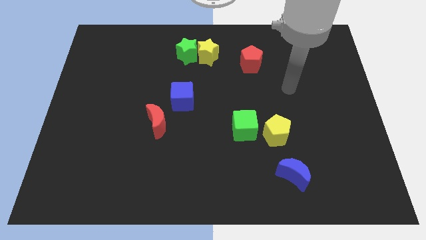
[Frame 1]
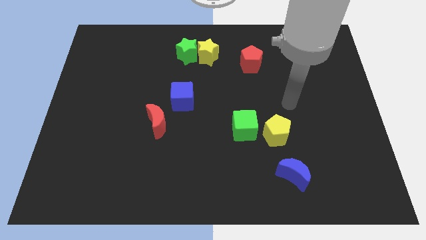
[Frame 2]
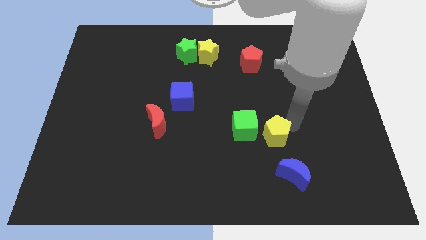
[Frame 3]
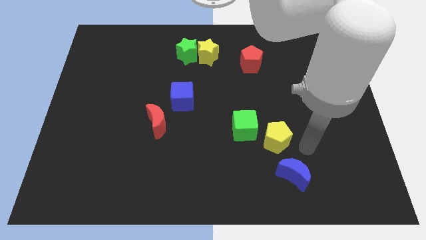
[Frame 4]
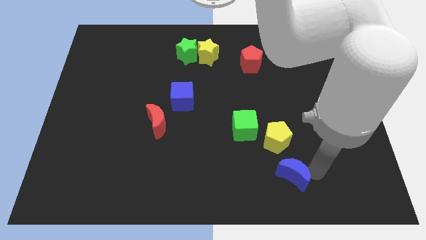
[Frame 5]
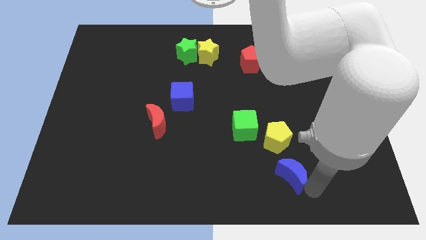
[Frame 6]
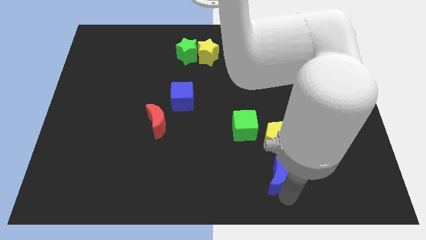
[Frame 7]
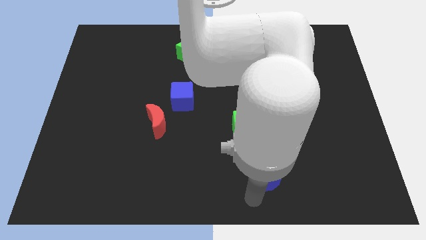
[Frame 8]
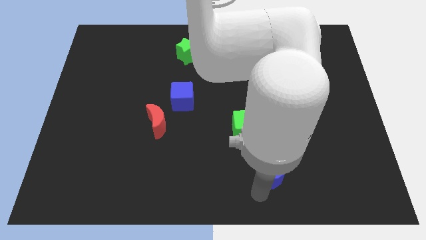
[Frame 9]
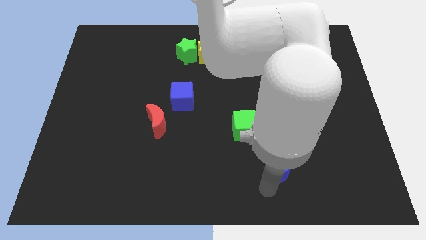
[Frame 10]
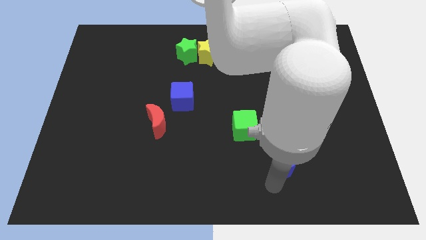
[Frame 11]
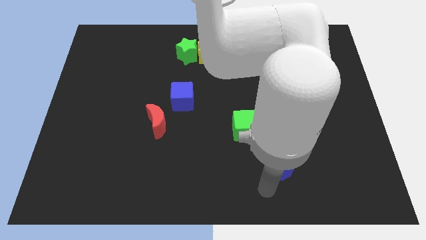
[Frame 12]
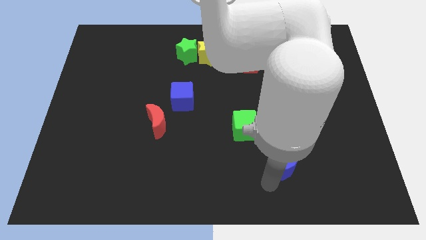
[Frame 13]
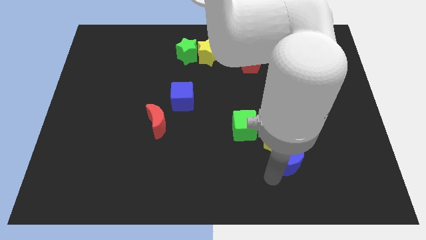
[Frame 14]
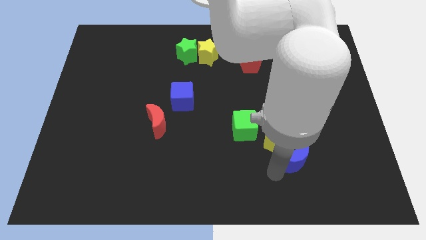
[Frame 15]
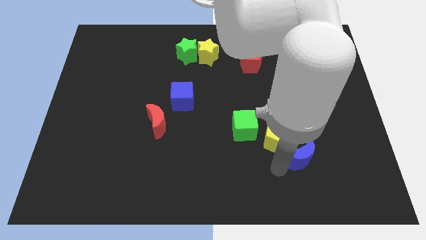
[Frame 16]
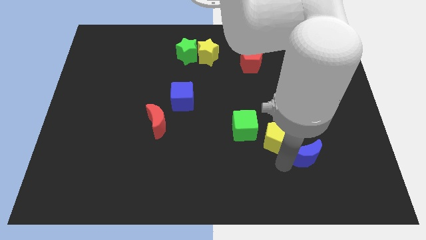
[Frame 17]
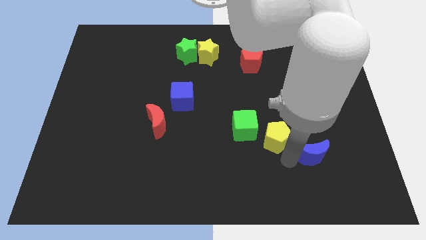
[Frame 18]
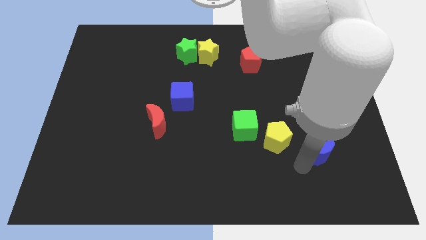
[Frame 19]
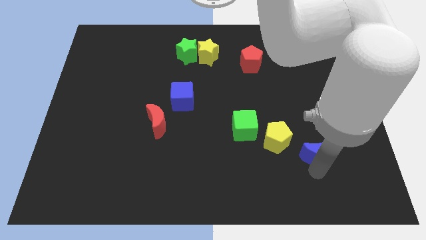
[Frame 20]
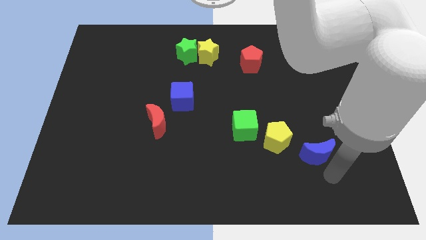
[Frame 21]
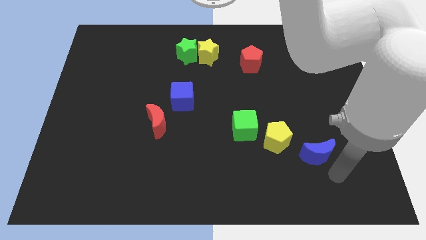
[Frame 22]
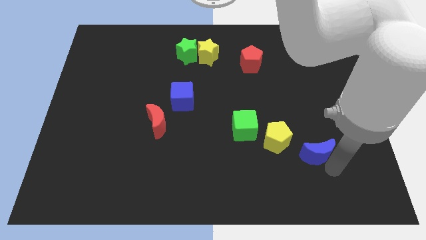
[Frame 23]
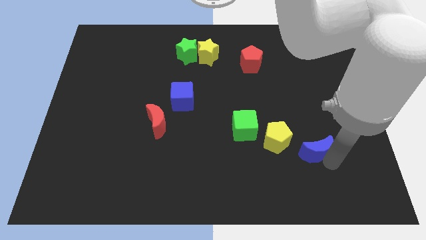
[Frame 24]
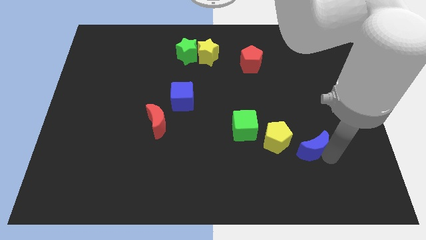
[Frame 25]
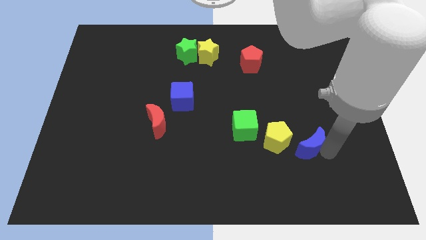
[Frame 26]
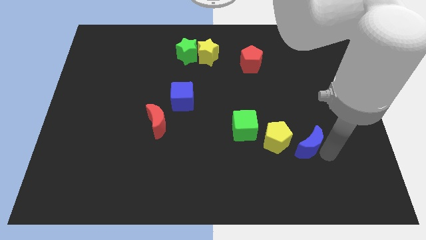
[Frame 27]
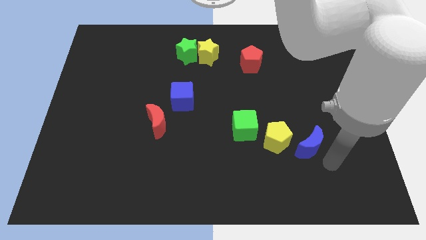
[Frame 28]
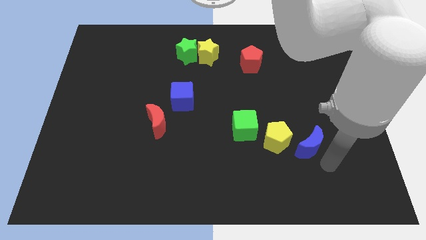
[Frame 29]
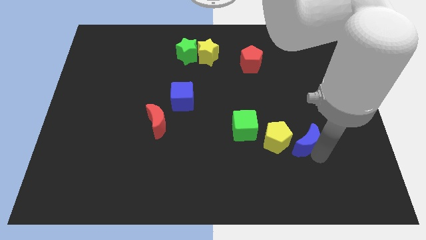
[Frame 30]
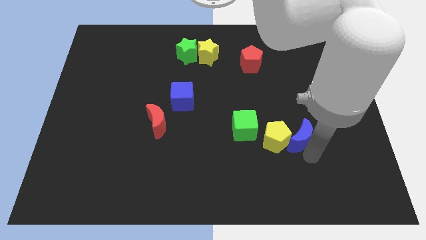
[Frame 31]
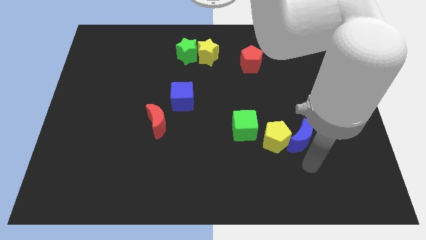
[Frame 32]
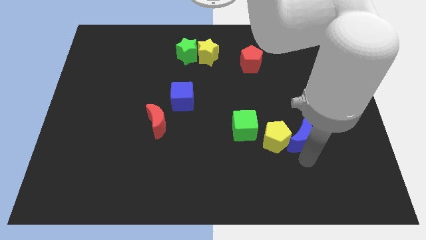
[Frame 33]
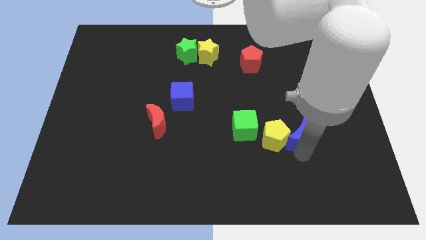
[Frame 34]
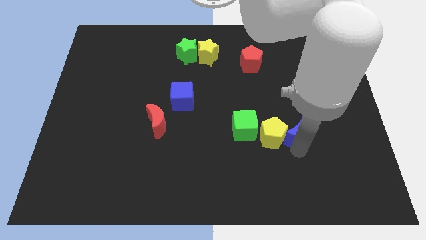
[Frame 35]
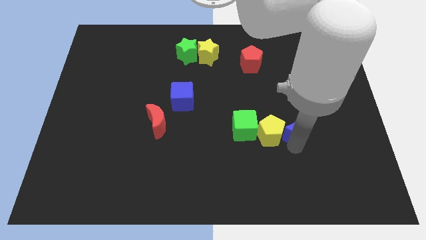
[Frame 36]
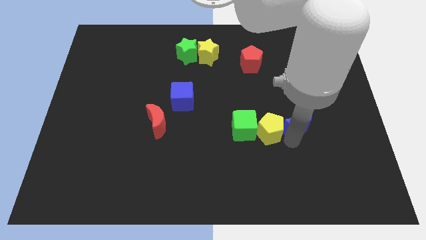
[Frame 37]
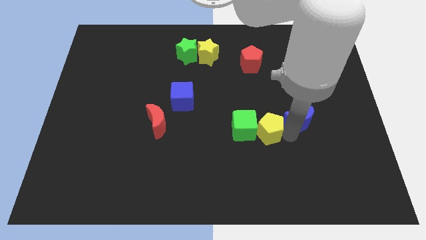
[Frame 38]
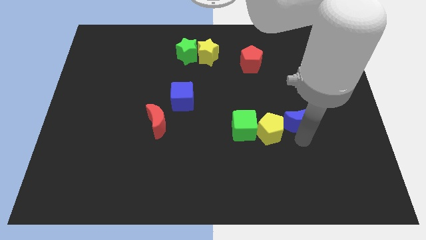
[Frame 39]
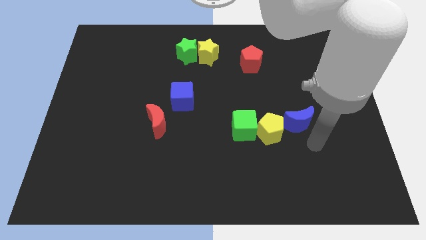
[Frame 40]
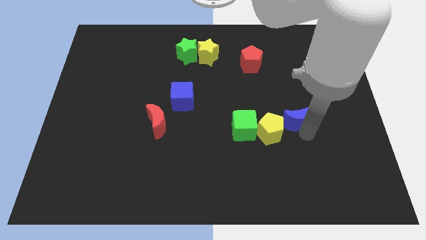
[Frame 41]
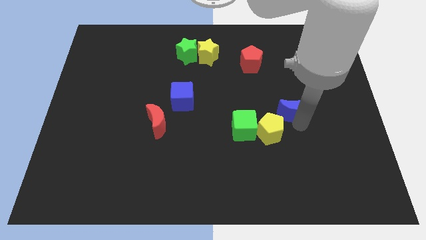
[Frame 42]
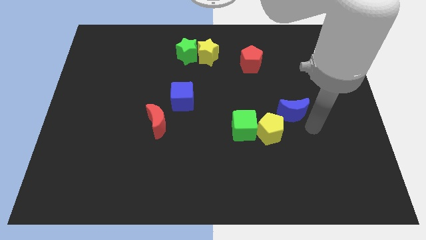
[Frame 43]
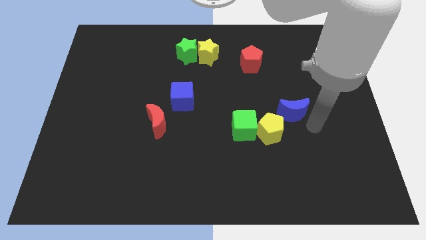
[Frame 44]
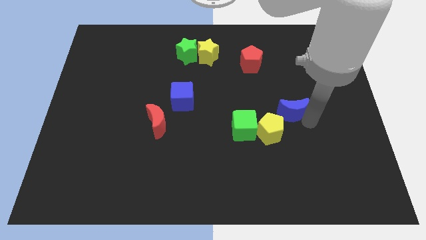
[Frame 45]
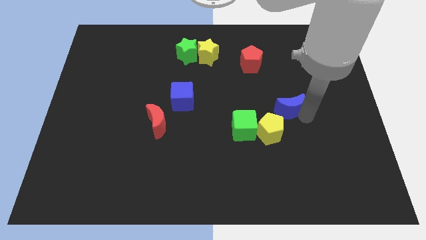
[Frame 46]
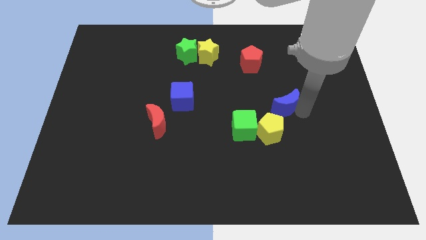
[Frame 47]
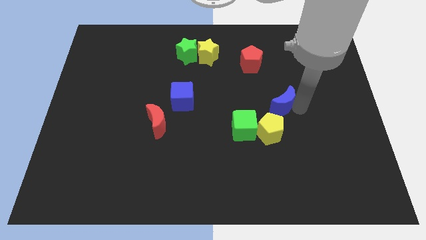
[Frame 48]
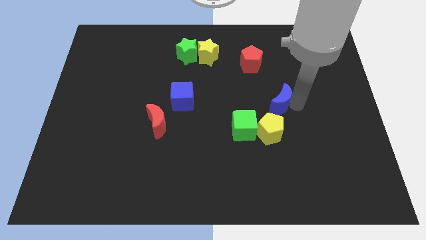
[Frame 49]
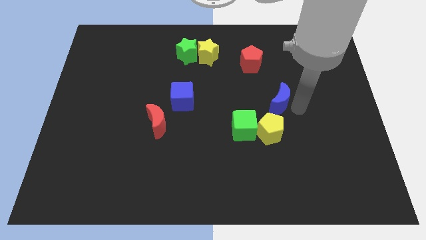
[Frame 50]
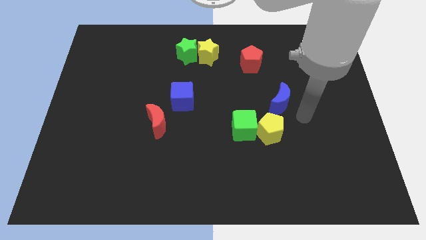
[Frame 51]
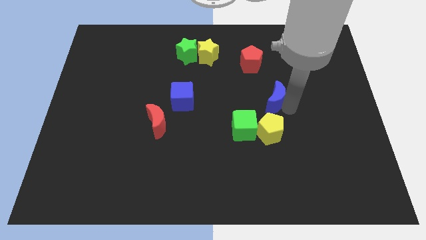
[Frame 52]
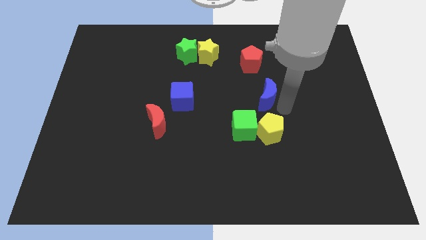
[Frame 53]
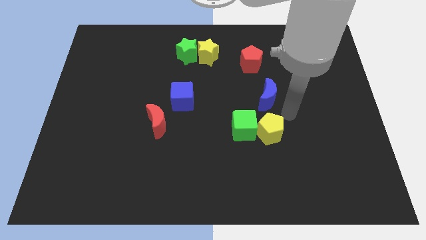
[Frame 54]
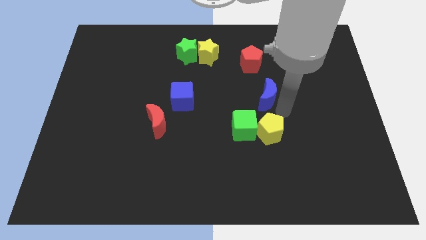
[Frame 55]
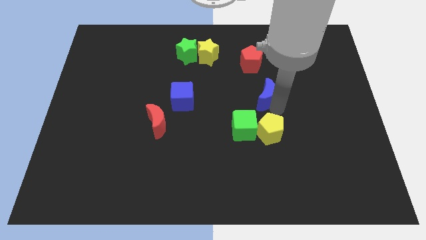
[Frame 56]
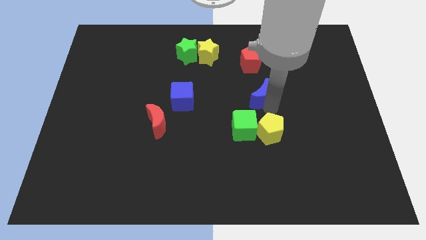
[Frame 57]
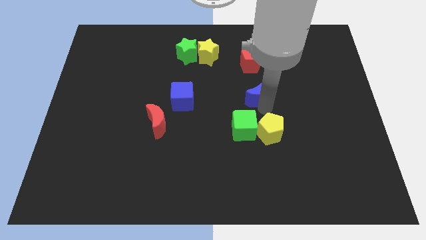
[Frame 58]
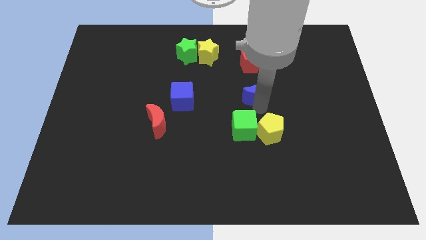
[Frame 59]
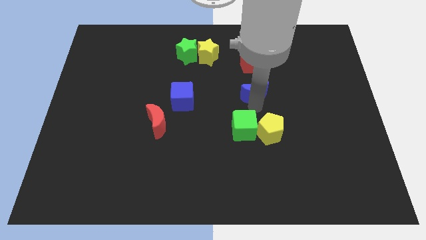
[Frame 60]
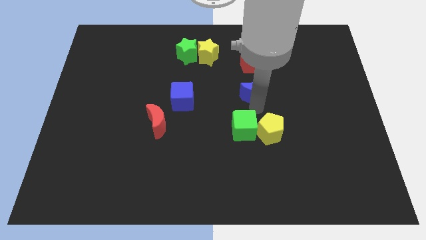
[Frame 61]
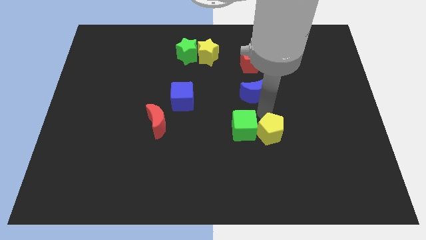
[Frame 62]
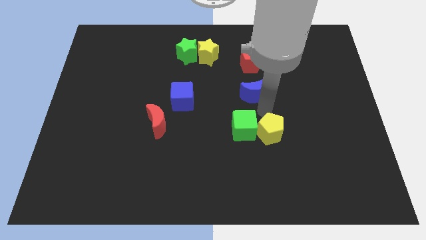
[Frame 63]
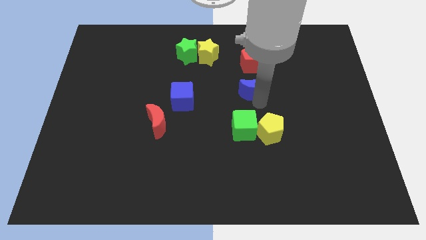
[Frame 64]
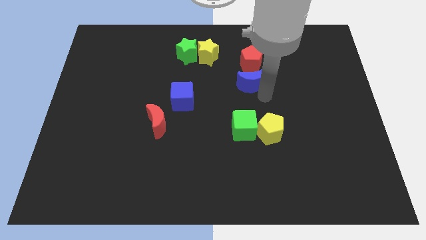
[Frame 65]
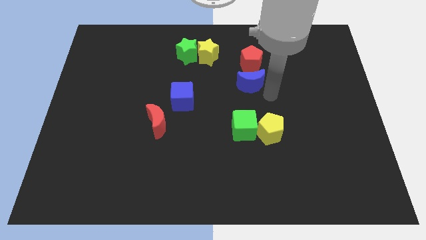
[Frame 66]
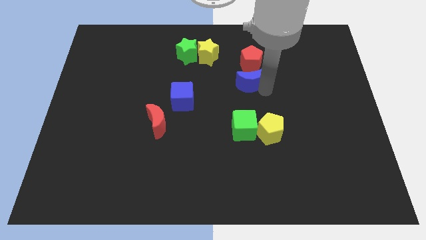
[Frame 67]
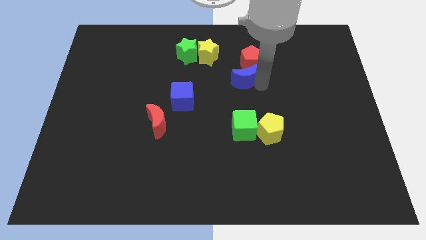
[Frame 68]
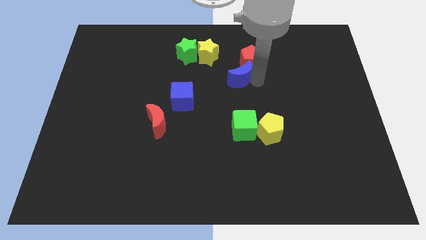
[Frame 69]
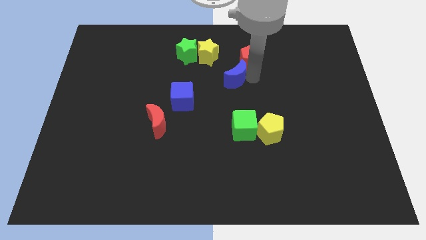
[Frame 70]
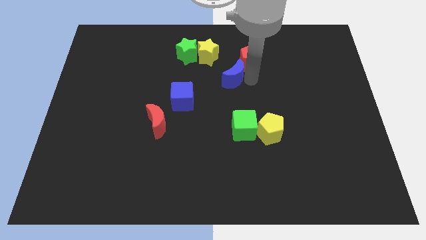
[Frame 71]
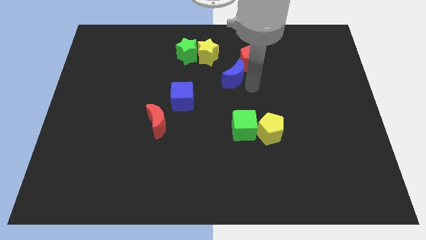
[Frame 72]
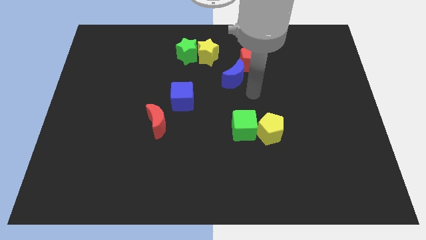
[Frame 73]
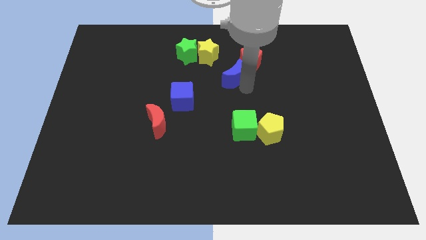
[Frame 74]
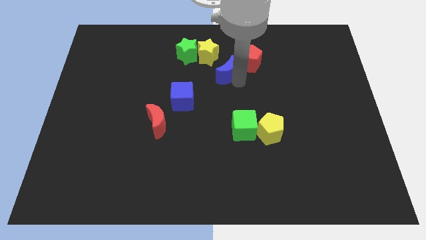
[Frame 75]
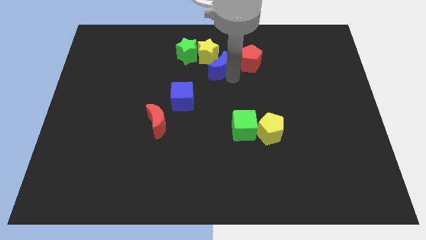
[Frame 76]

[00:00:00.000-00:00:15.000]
put the blue moon to the yellow star
